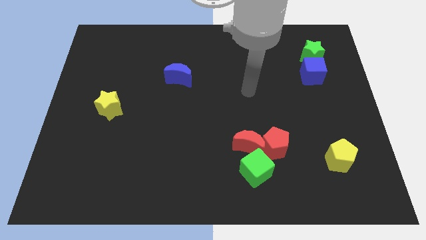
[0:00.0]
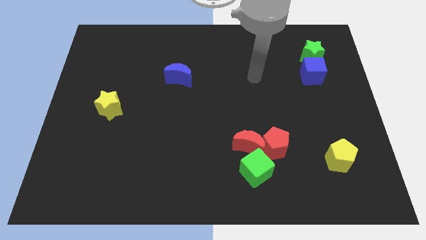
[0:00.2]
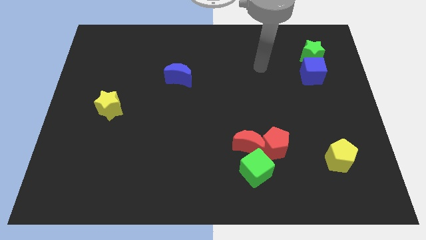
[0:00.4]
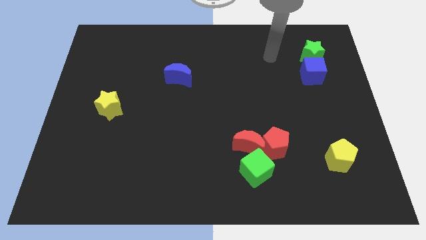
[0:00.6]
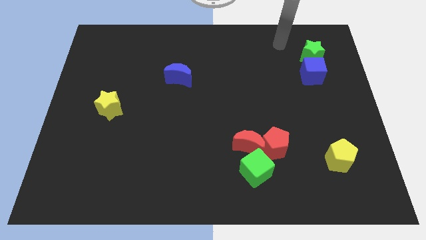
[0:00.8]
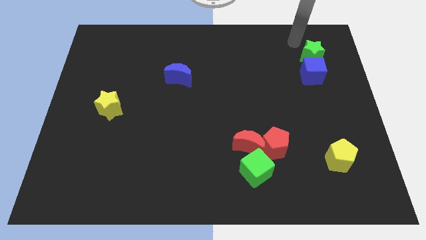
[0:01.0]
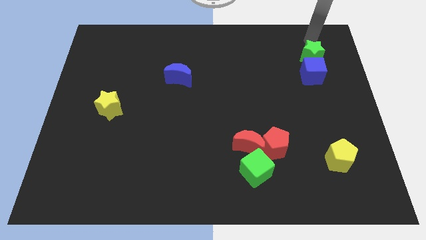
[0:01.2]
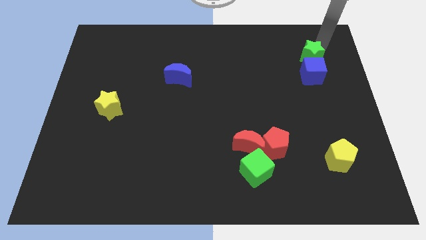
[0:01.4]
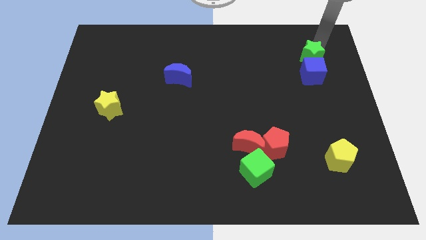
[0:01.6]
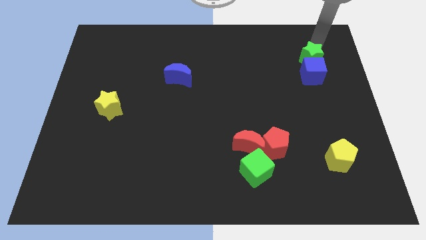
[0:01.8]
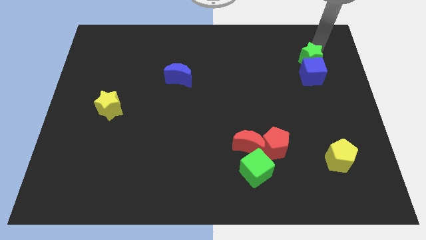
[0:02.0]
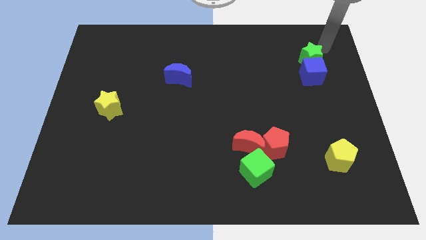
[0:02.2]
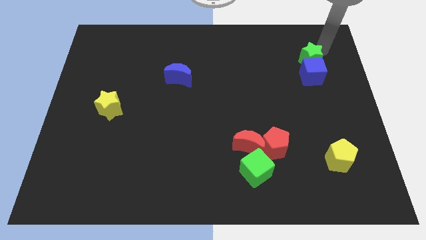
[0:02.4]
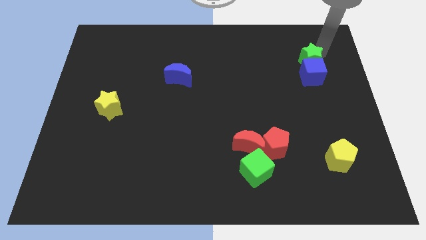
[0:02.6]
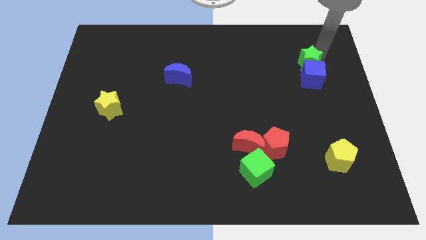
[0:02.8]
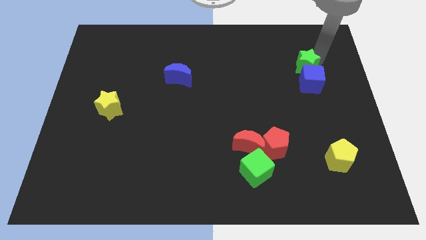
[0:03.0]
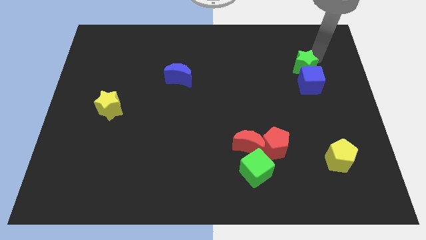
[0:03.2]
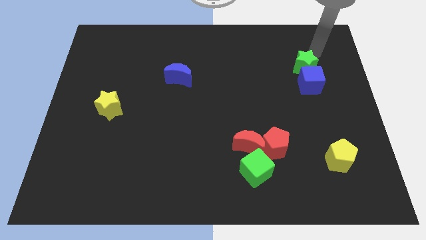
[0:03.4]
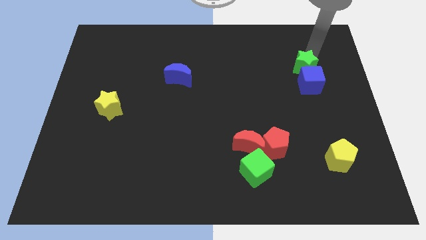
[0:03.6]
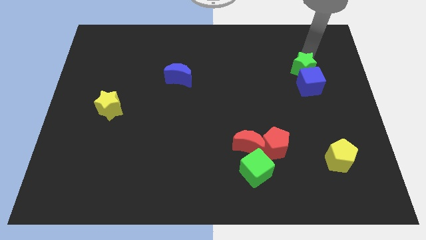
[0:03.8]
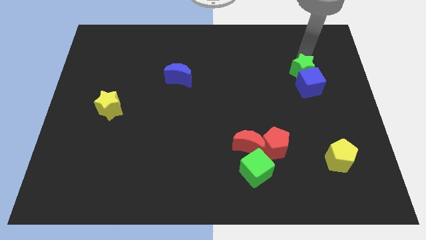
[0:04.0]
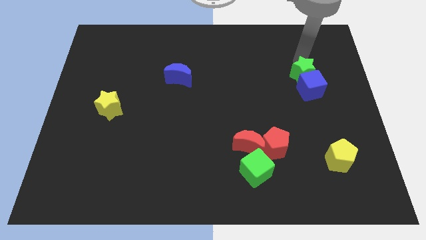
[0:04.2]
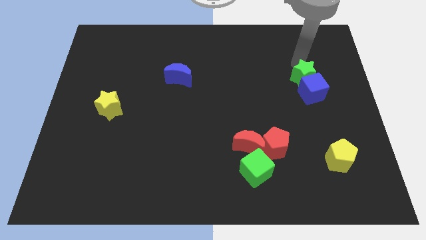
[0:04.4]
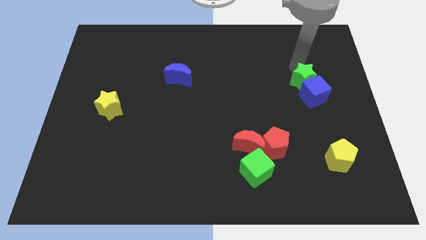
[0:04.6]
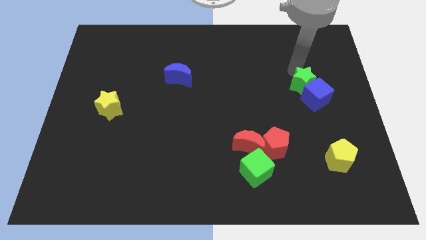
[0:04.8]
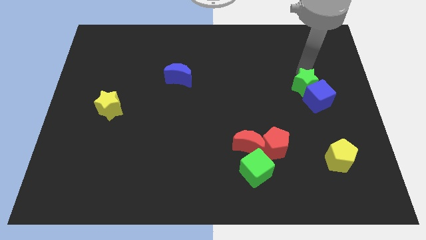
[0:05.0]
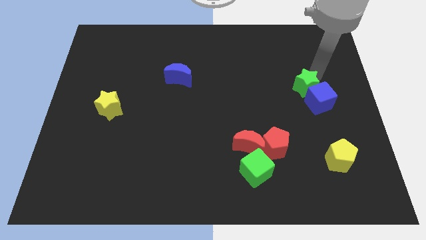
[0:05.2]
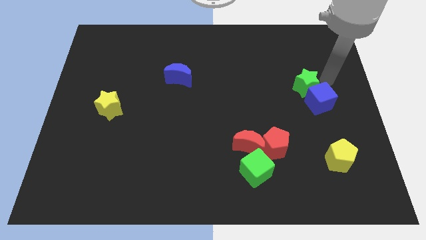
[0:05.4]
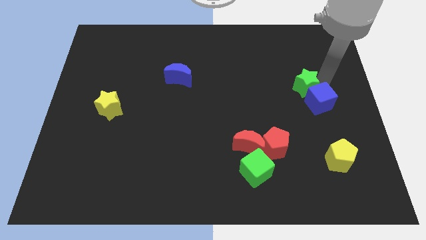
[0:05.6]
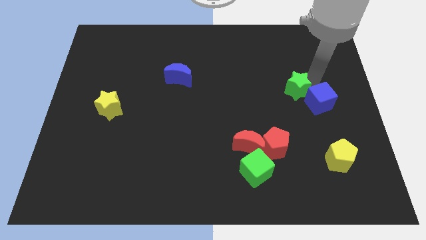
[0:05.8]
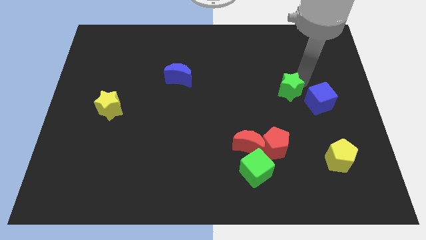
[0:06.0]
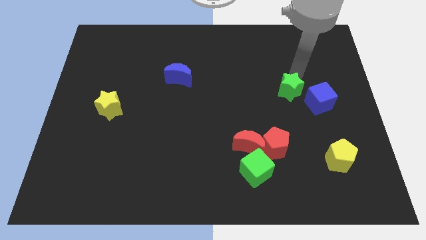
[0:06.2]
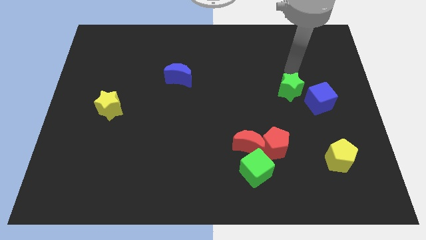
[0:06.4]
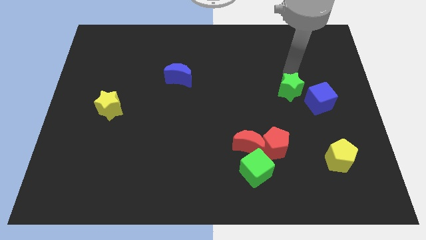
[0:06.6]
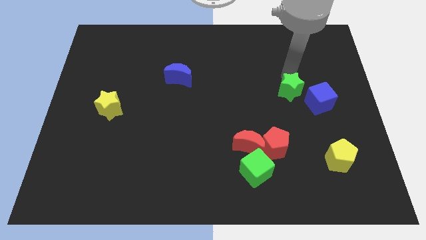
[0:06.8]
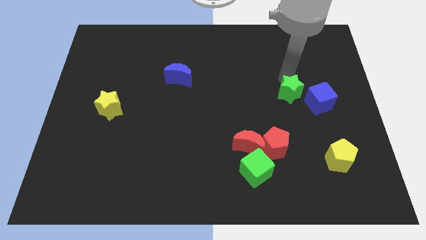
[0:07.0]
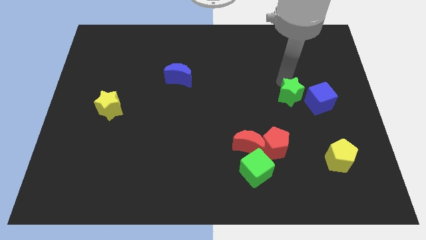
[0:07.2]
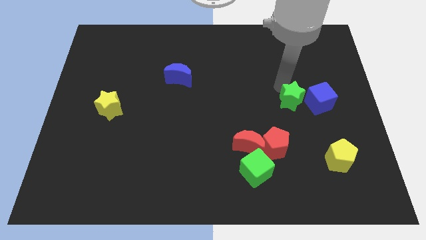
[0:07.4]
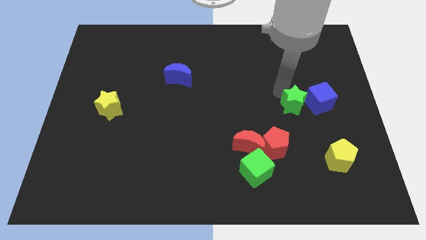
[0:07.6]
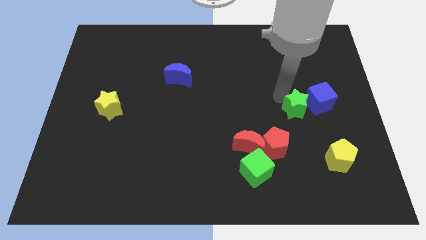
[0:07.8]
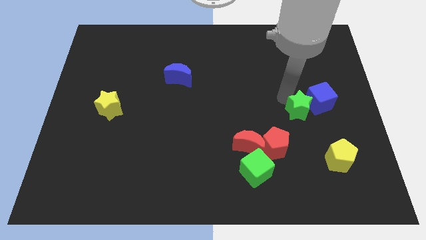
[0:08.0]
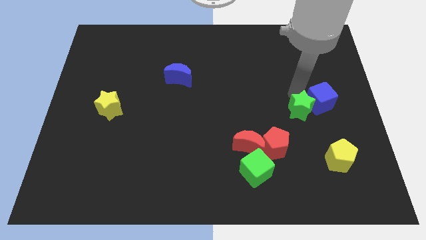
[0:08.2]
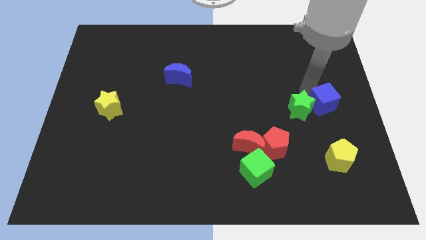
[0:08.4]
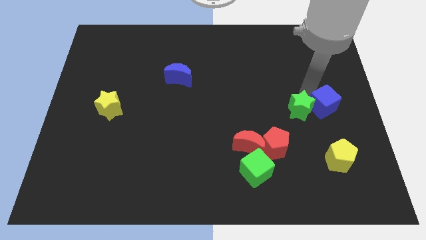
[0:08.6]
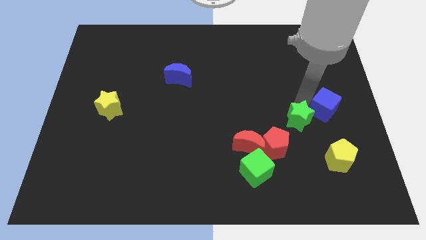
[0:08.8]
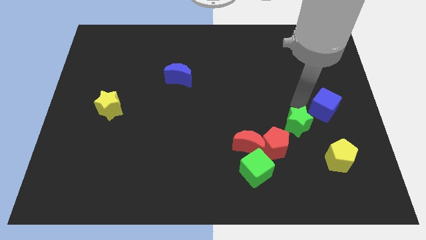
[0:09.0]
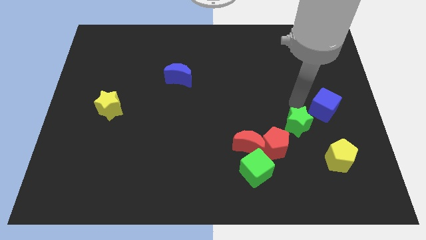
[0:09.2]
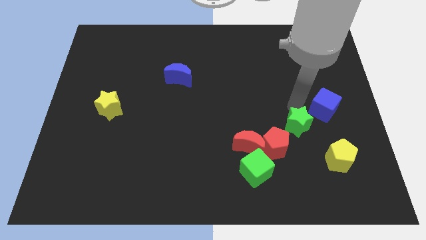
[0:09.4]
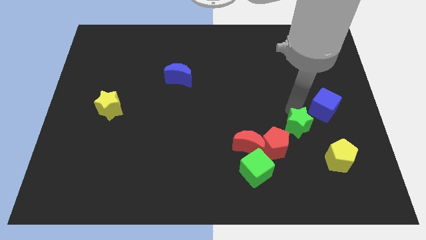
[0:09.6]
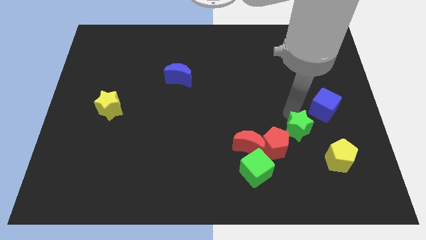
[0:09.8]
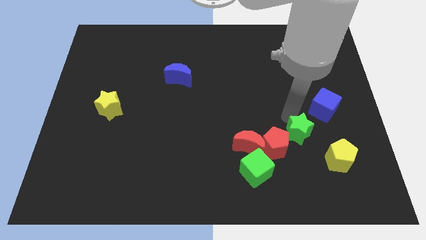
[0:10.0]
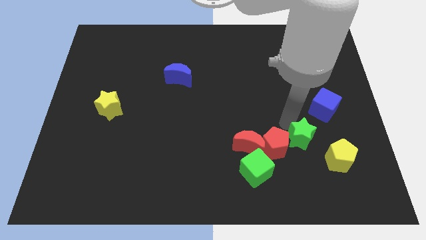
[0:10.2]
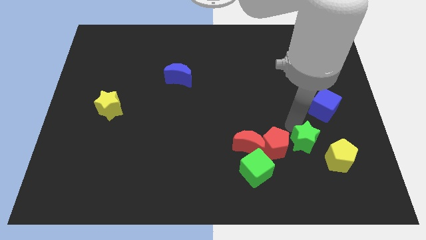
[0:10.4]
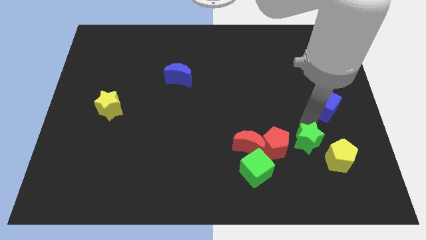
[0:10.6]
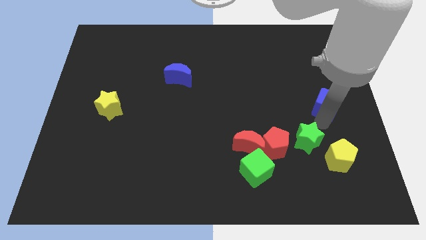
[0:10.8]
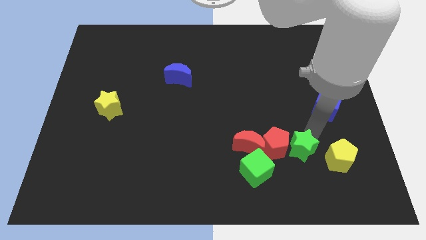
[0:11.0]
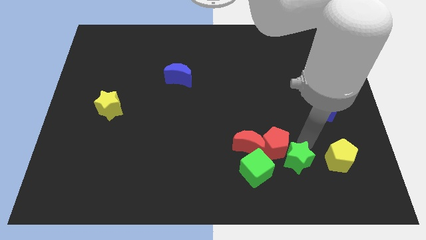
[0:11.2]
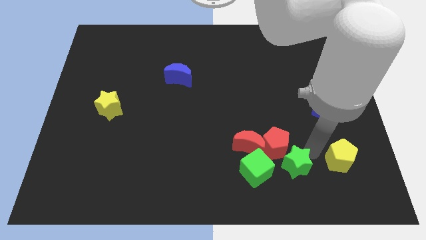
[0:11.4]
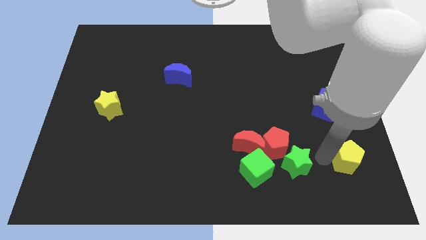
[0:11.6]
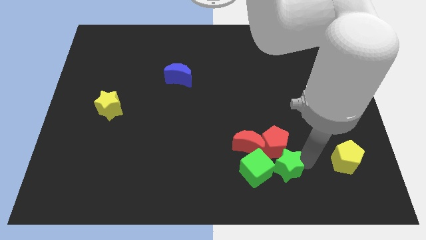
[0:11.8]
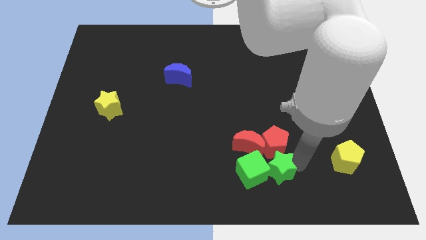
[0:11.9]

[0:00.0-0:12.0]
push the green star close to the green cube

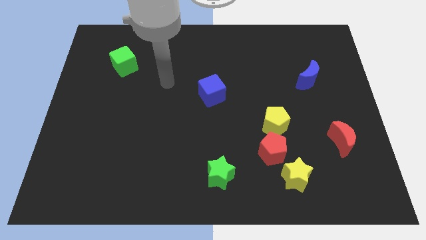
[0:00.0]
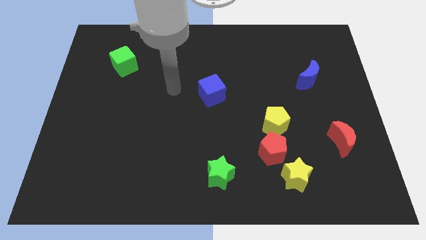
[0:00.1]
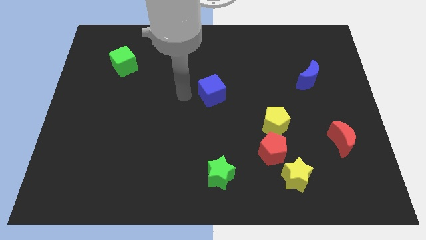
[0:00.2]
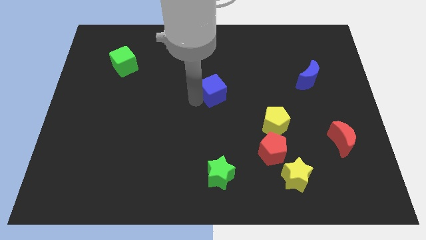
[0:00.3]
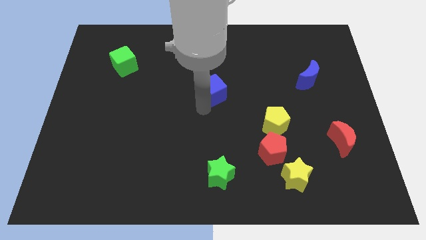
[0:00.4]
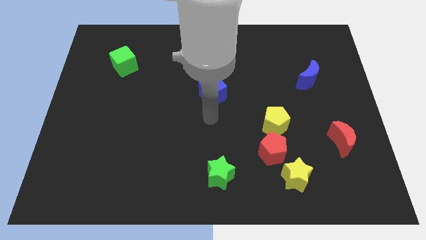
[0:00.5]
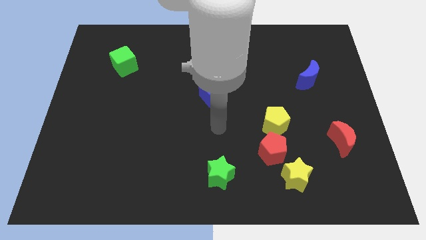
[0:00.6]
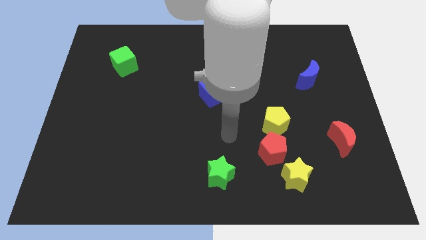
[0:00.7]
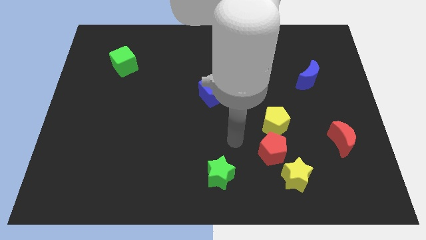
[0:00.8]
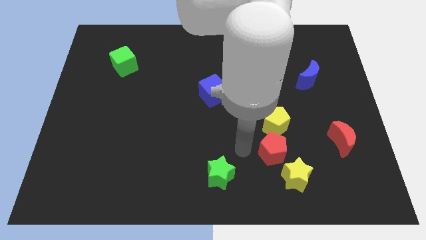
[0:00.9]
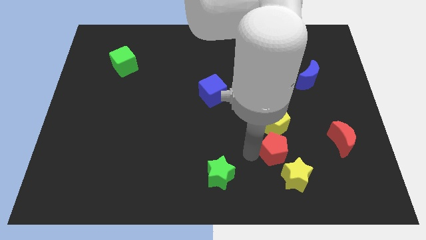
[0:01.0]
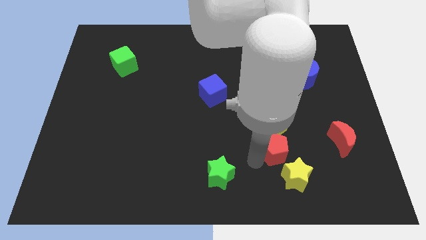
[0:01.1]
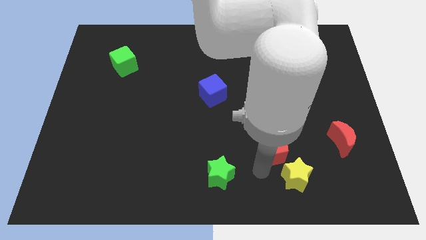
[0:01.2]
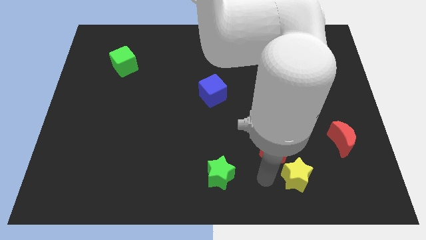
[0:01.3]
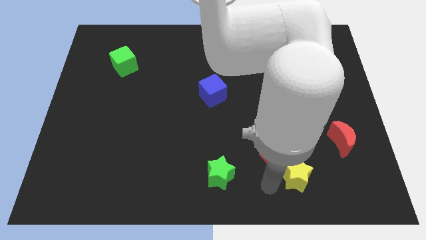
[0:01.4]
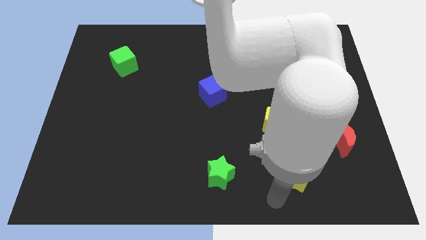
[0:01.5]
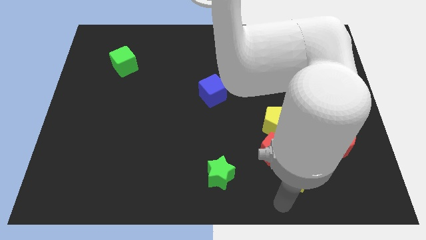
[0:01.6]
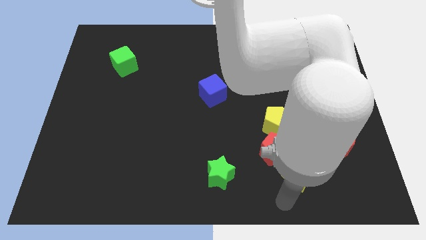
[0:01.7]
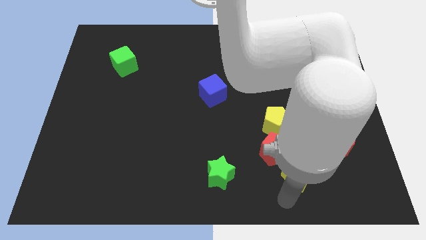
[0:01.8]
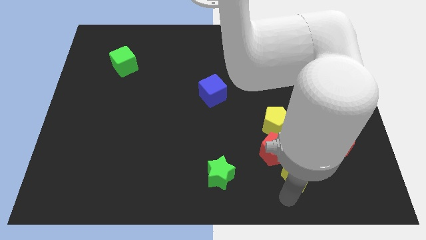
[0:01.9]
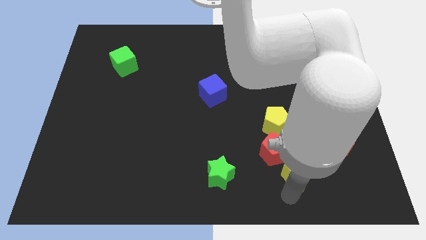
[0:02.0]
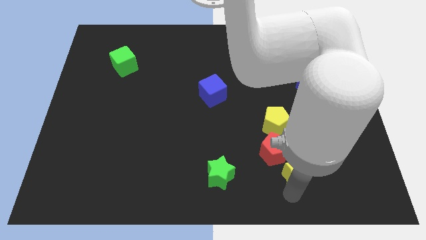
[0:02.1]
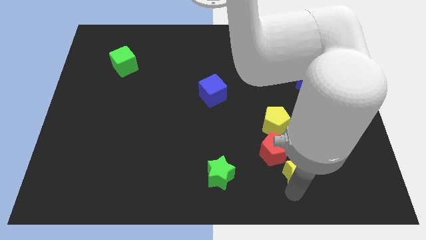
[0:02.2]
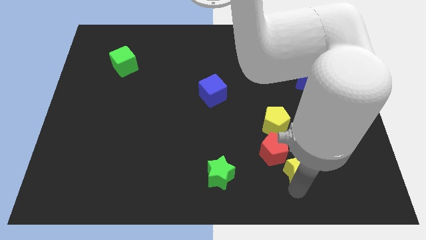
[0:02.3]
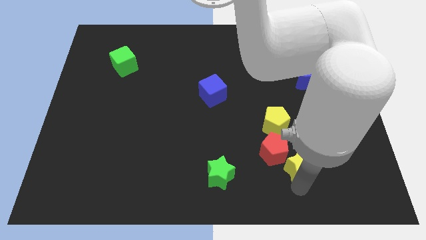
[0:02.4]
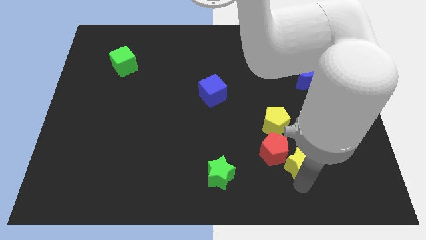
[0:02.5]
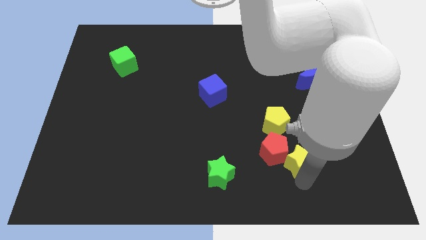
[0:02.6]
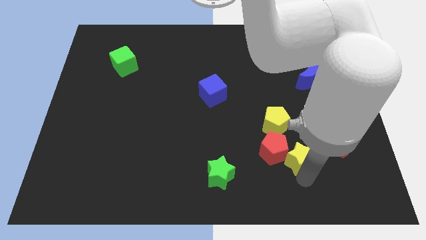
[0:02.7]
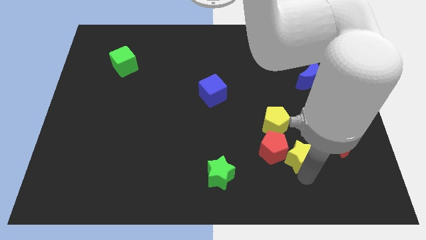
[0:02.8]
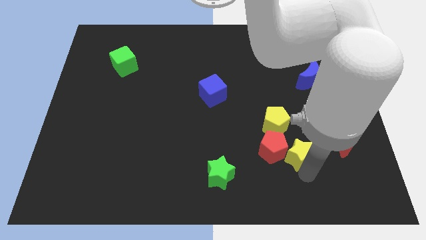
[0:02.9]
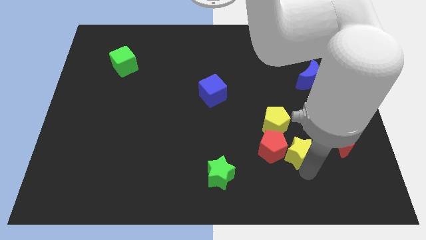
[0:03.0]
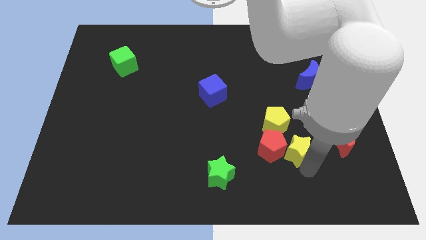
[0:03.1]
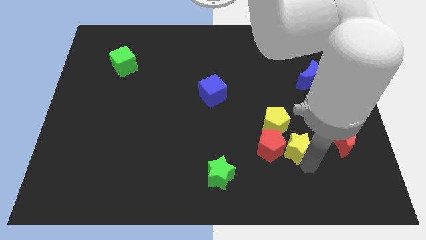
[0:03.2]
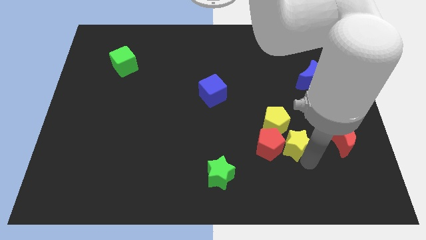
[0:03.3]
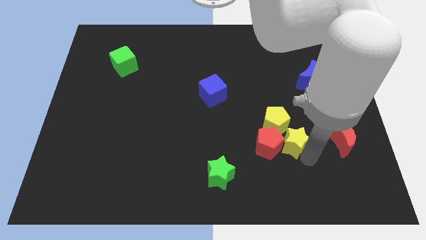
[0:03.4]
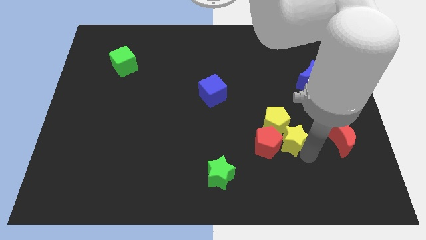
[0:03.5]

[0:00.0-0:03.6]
put the yellow star close to the yellow pentagon
